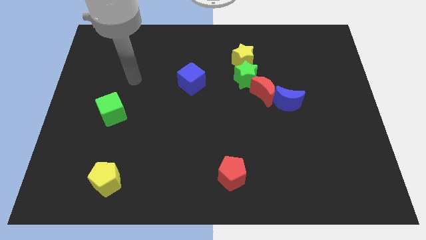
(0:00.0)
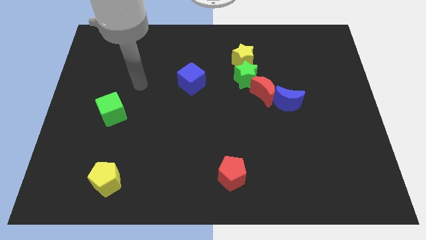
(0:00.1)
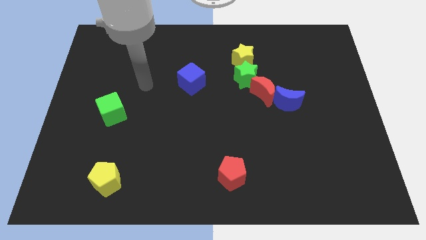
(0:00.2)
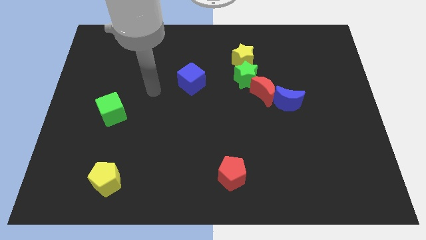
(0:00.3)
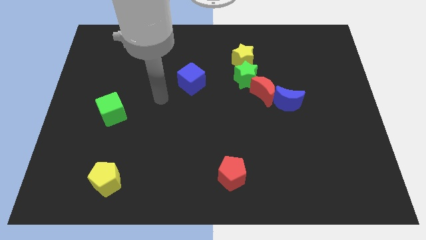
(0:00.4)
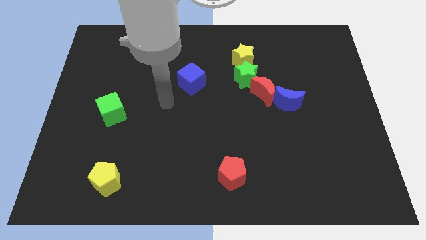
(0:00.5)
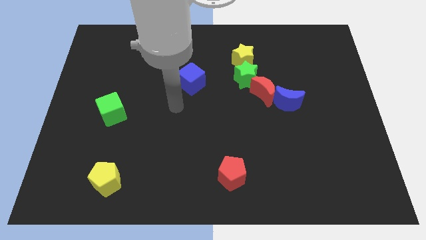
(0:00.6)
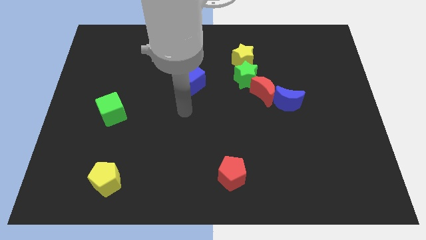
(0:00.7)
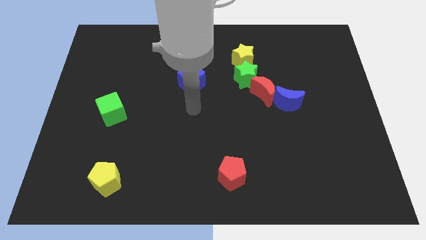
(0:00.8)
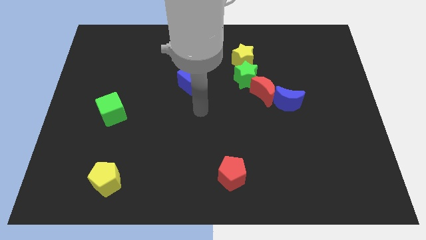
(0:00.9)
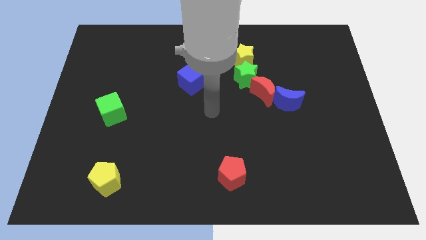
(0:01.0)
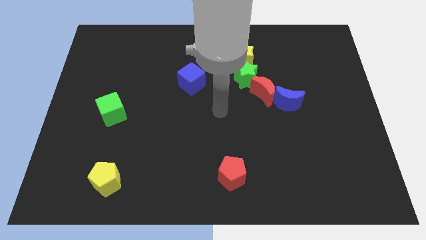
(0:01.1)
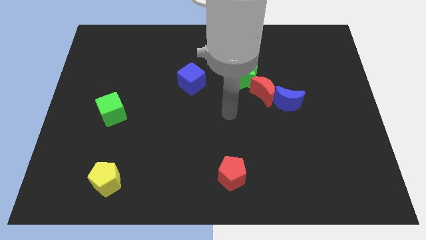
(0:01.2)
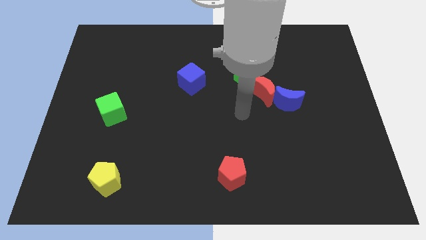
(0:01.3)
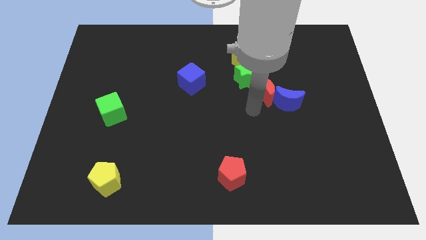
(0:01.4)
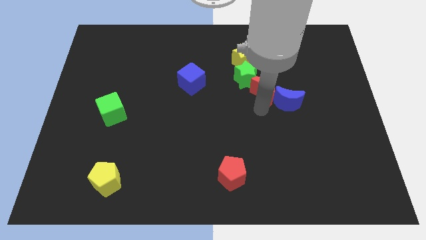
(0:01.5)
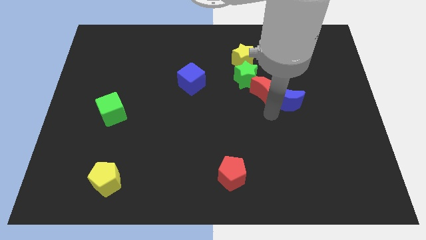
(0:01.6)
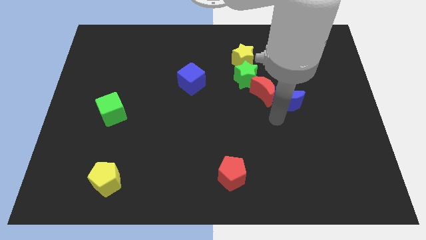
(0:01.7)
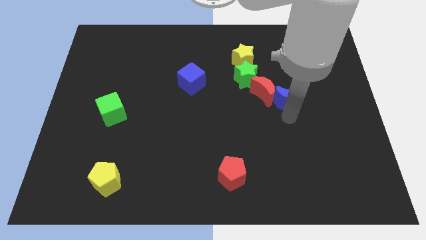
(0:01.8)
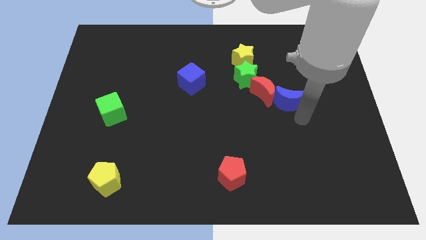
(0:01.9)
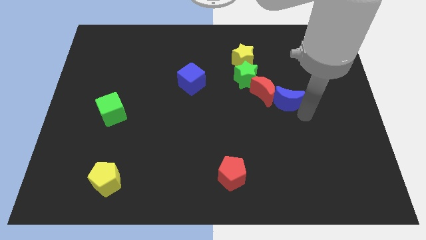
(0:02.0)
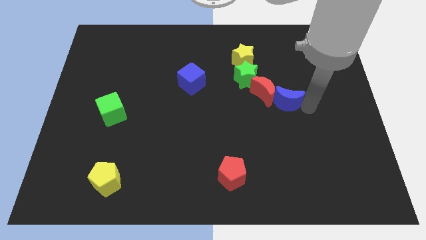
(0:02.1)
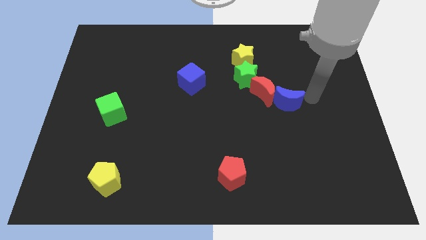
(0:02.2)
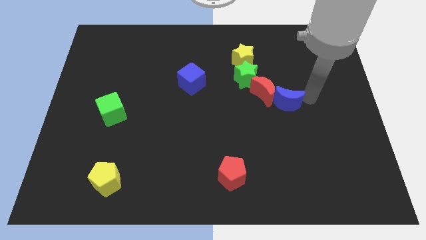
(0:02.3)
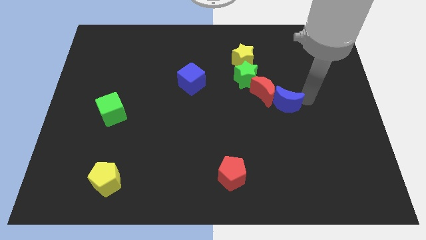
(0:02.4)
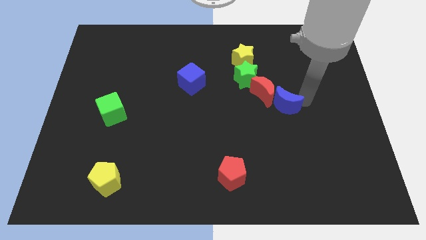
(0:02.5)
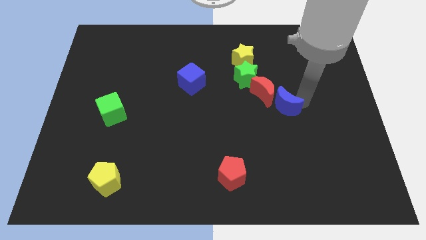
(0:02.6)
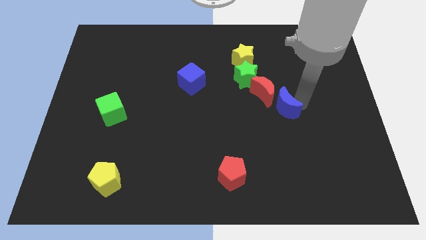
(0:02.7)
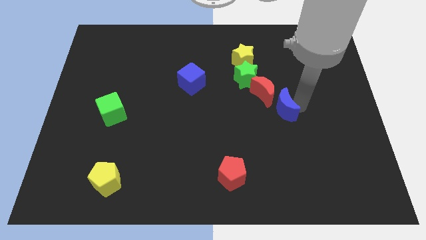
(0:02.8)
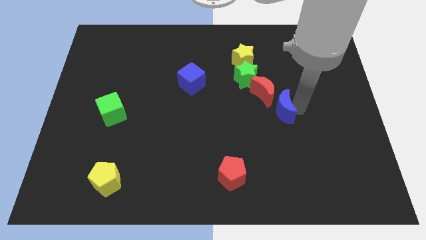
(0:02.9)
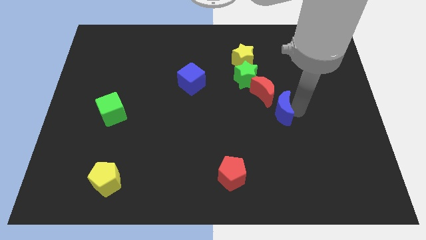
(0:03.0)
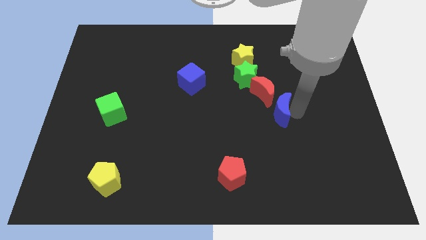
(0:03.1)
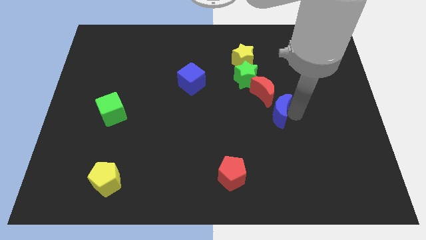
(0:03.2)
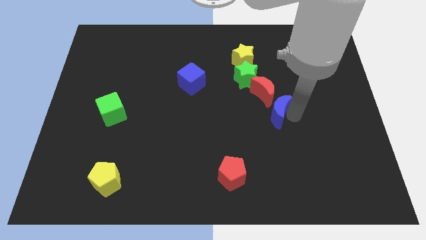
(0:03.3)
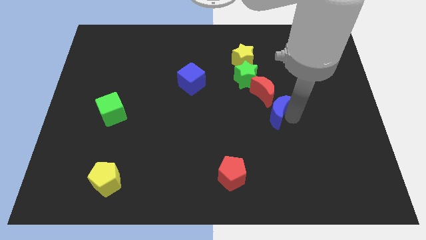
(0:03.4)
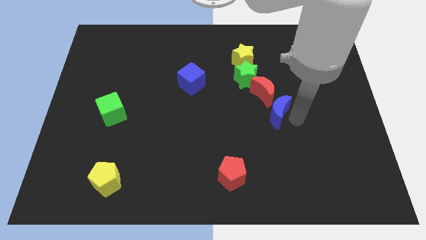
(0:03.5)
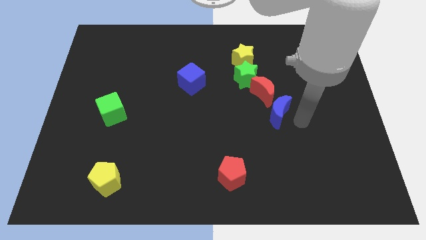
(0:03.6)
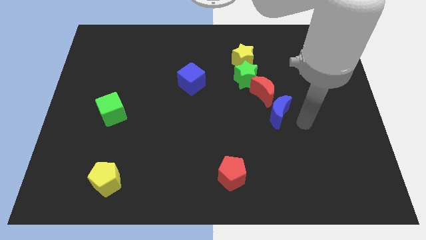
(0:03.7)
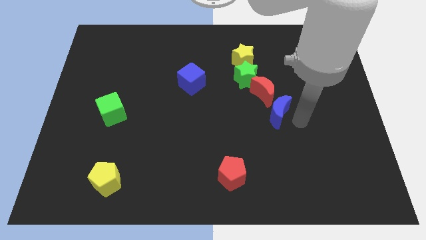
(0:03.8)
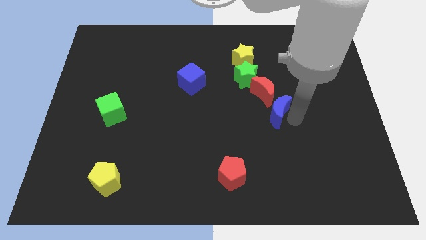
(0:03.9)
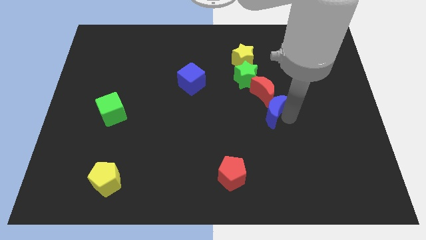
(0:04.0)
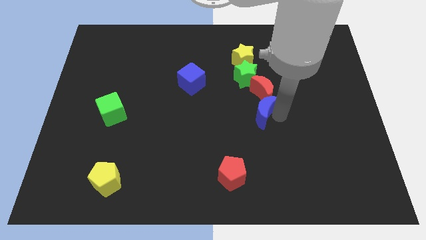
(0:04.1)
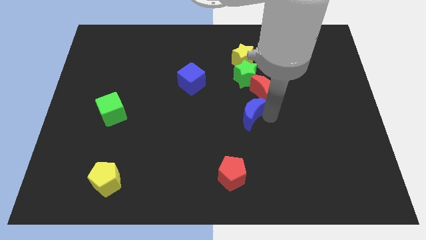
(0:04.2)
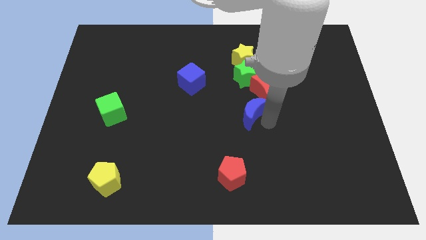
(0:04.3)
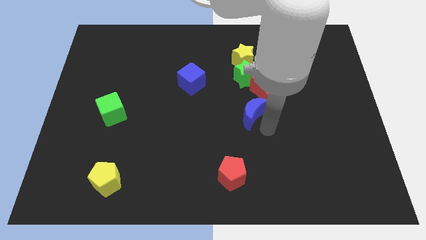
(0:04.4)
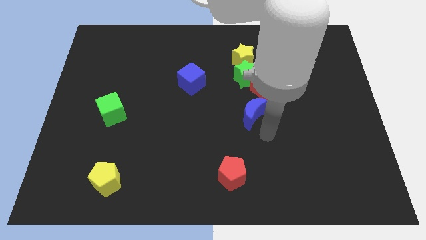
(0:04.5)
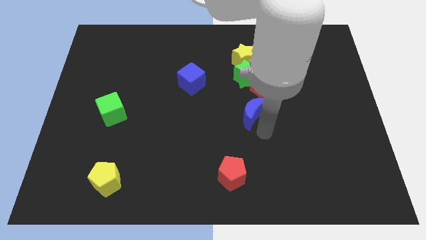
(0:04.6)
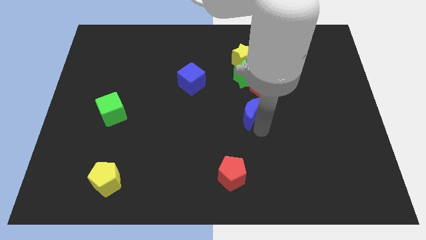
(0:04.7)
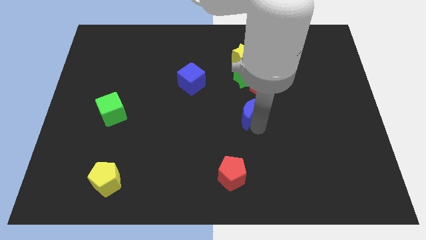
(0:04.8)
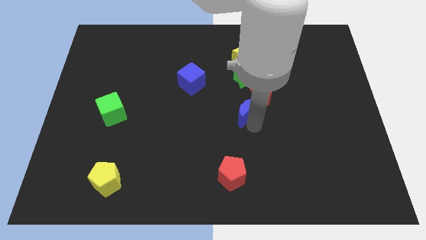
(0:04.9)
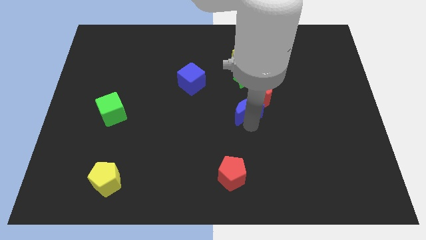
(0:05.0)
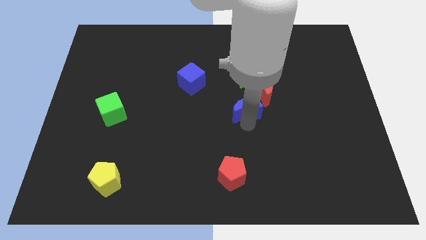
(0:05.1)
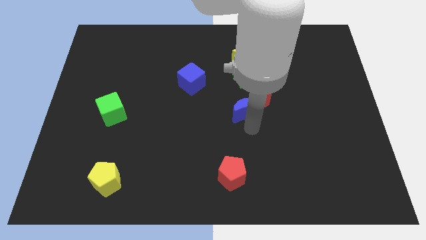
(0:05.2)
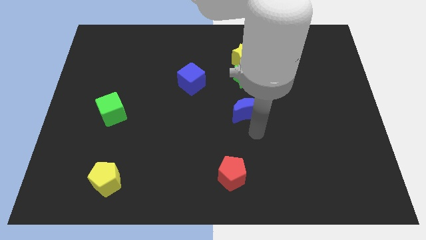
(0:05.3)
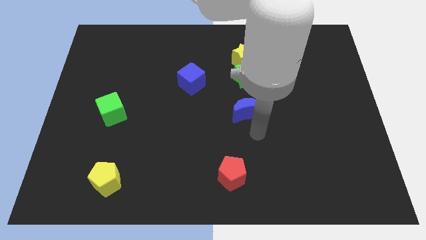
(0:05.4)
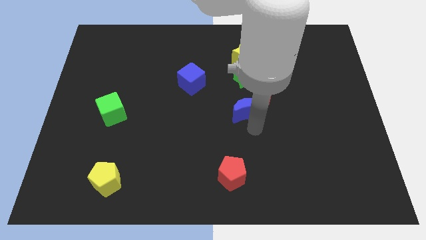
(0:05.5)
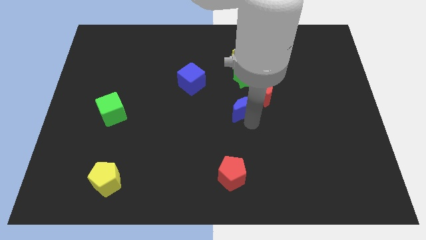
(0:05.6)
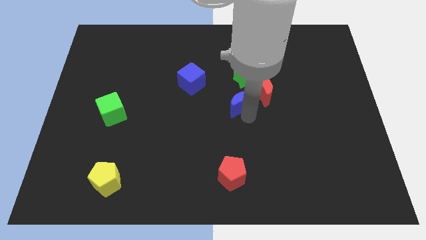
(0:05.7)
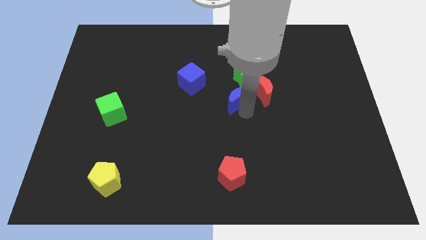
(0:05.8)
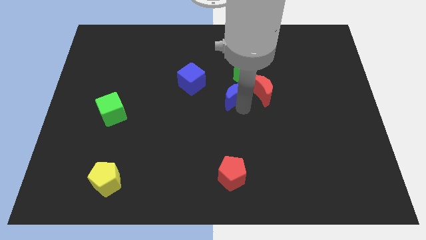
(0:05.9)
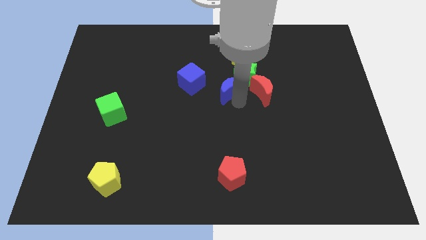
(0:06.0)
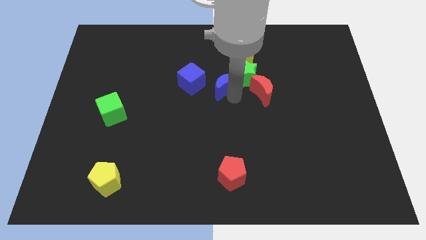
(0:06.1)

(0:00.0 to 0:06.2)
push the blue moon diagonally down and to the left of the yellow star

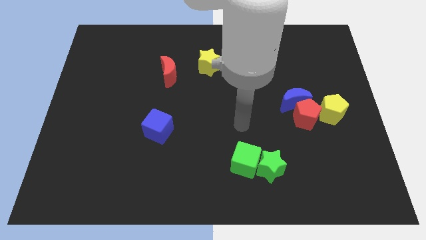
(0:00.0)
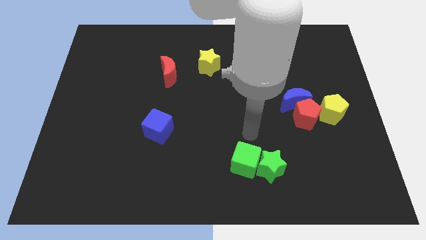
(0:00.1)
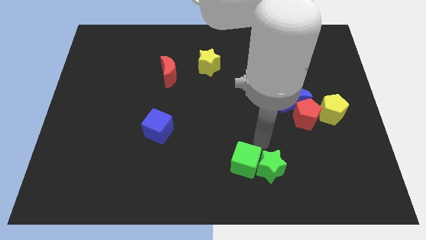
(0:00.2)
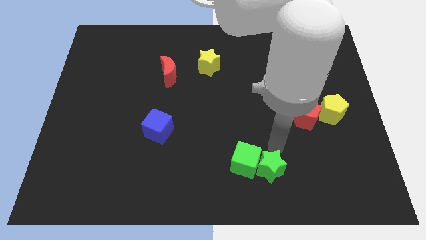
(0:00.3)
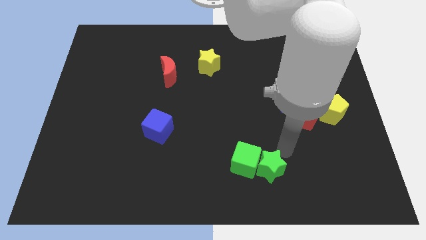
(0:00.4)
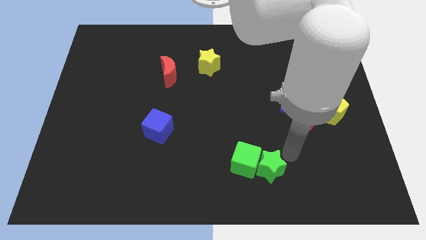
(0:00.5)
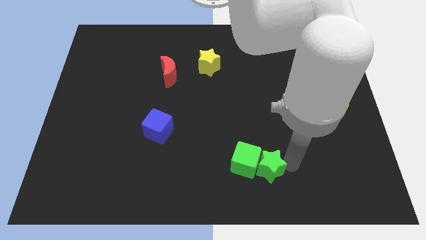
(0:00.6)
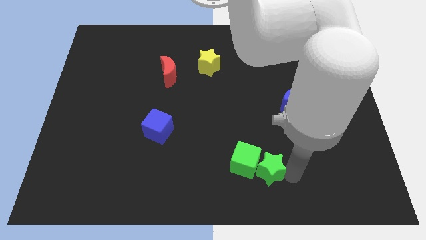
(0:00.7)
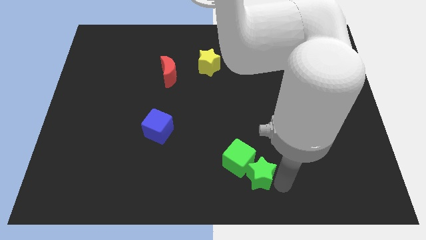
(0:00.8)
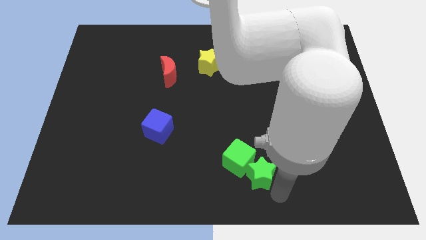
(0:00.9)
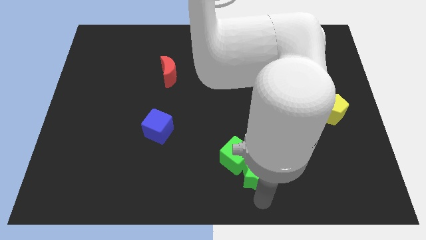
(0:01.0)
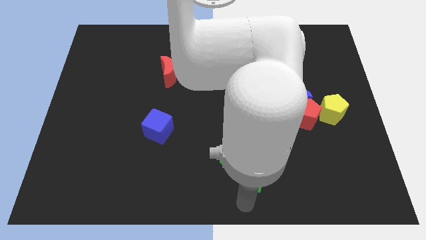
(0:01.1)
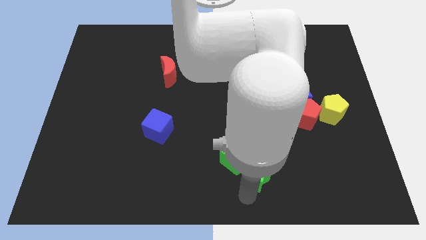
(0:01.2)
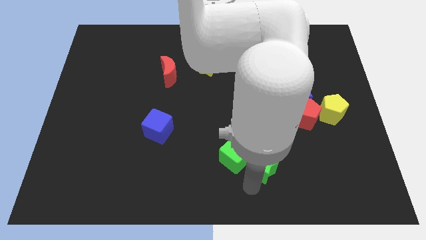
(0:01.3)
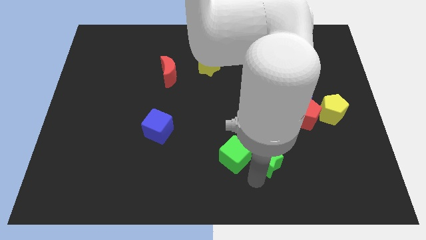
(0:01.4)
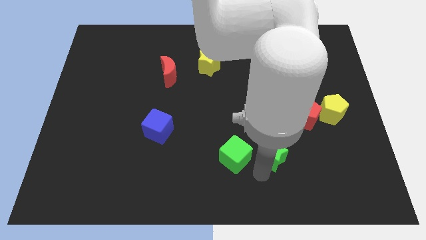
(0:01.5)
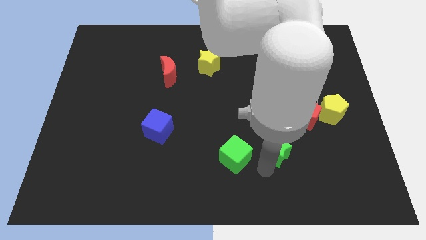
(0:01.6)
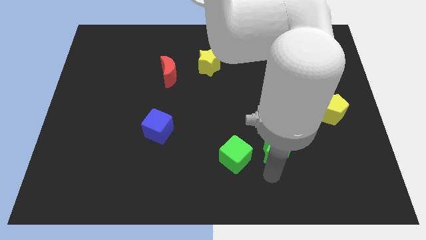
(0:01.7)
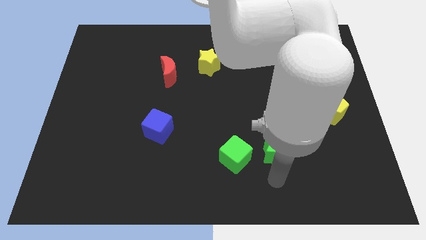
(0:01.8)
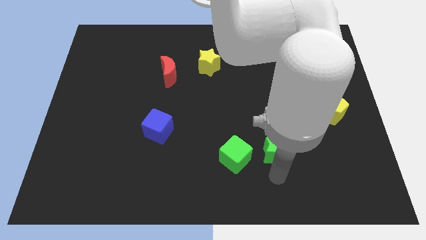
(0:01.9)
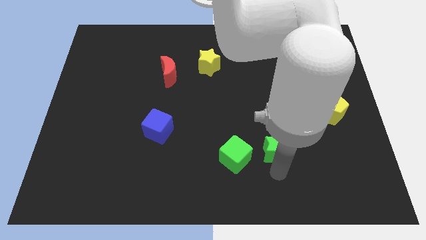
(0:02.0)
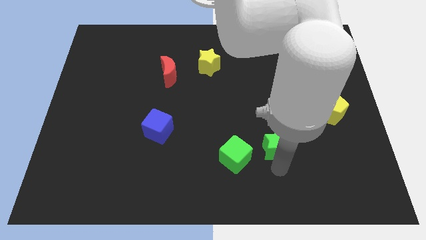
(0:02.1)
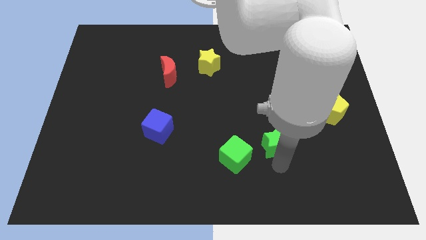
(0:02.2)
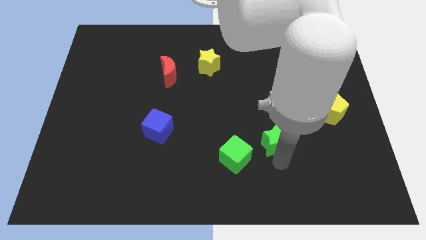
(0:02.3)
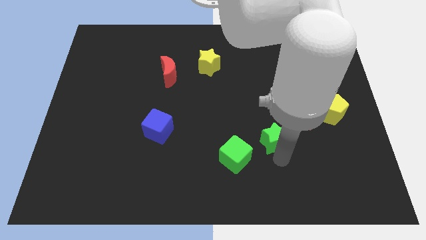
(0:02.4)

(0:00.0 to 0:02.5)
slide the green star diagonally down and to the left of the blue moon
